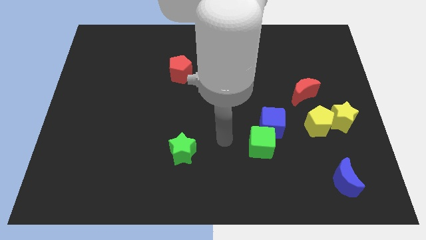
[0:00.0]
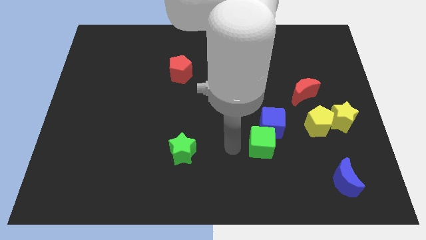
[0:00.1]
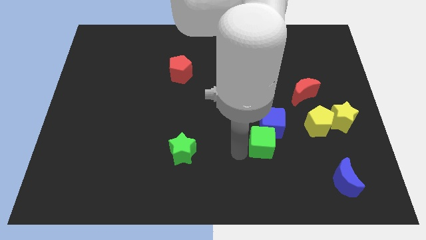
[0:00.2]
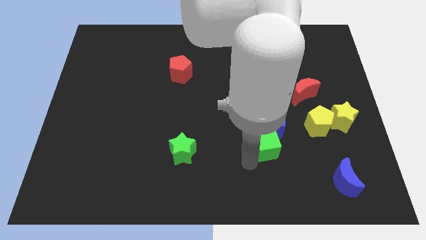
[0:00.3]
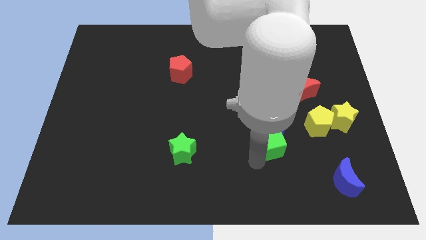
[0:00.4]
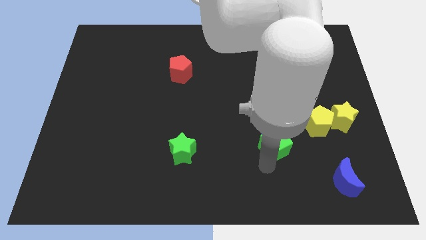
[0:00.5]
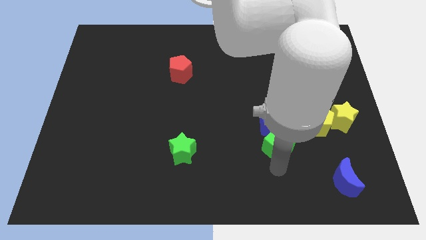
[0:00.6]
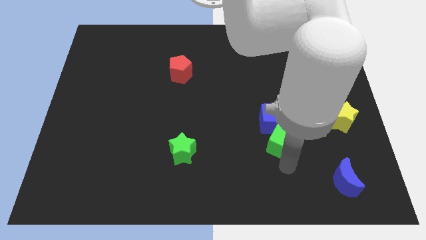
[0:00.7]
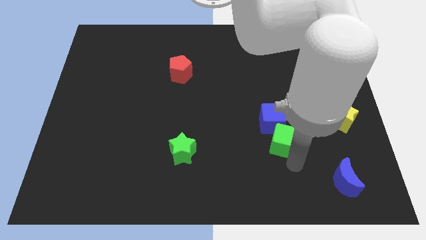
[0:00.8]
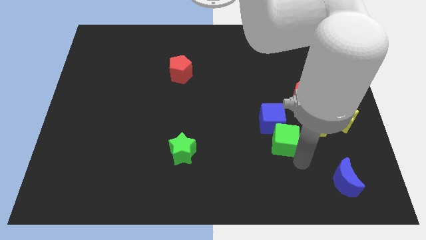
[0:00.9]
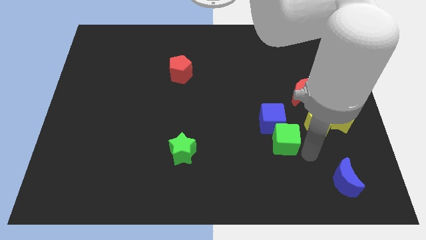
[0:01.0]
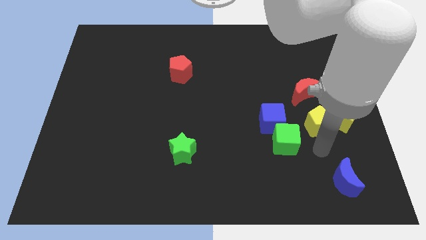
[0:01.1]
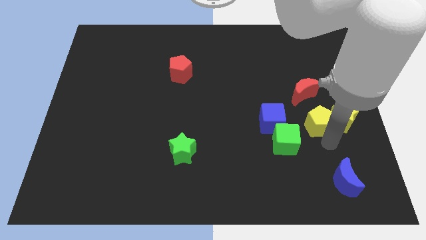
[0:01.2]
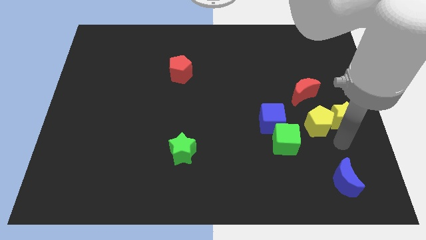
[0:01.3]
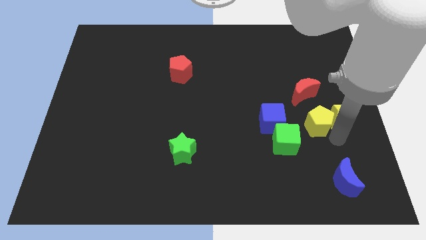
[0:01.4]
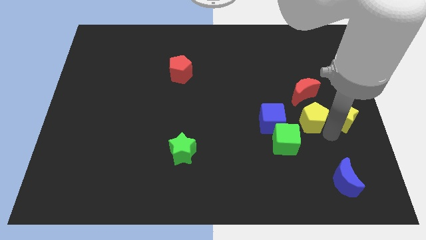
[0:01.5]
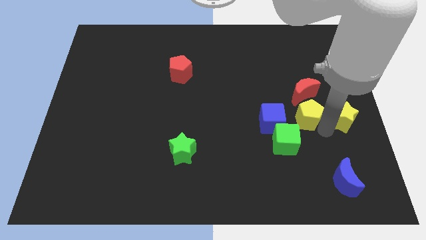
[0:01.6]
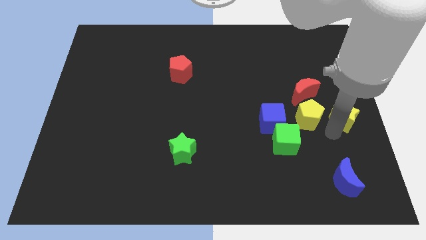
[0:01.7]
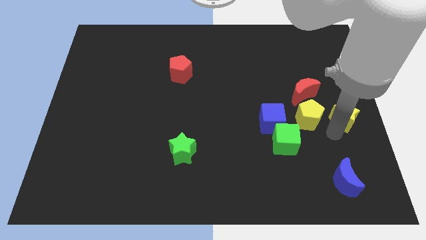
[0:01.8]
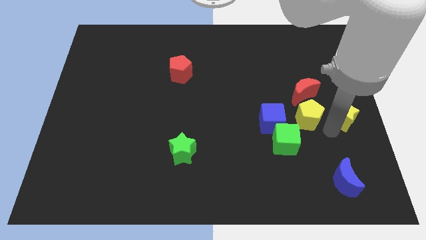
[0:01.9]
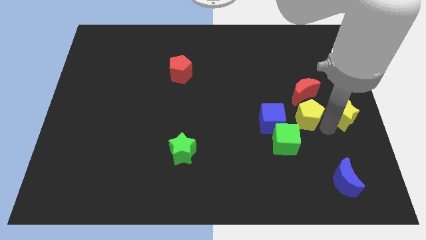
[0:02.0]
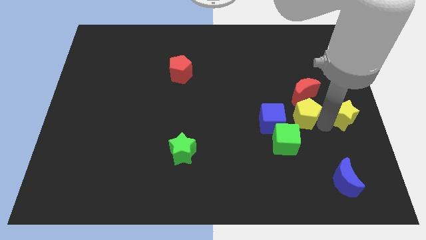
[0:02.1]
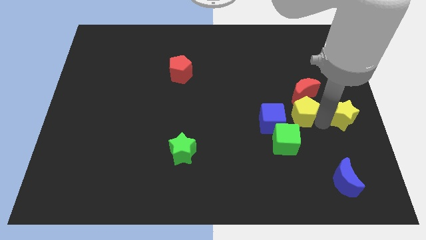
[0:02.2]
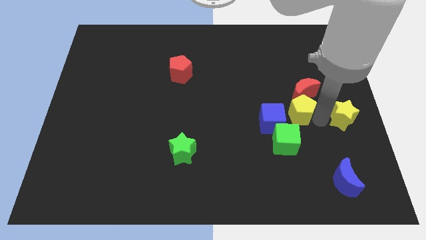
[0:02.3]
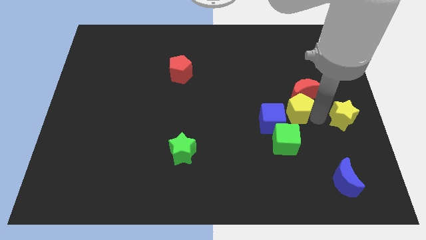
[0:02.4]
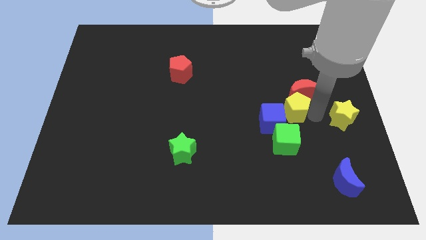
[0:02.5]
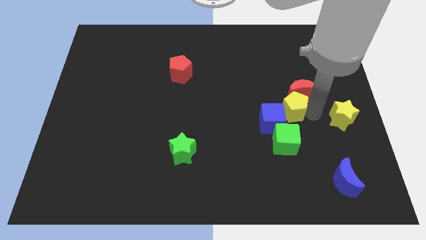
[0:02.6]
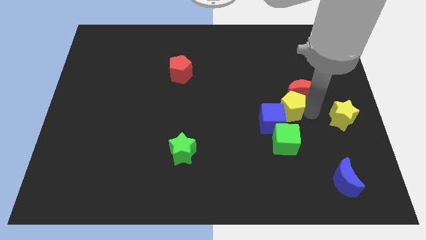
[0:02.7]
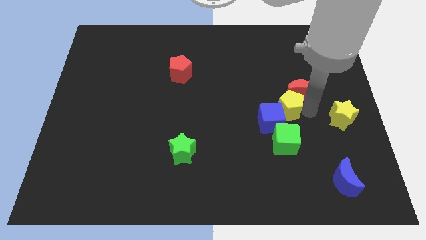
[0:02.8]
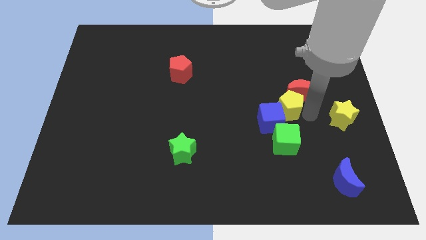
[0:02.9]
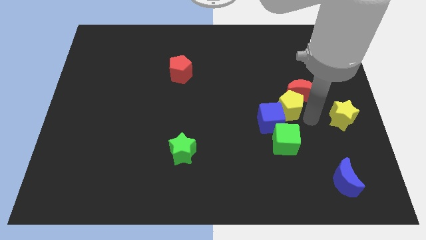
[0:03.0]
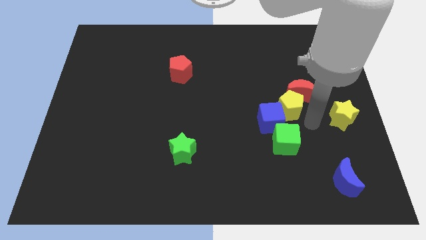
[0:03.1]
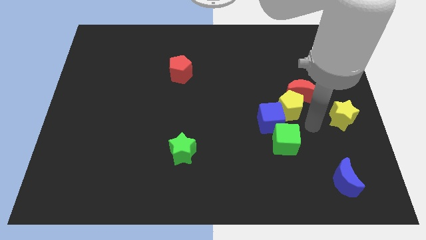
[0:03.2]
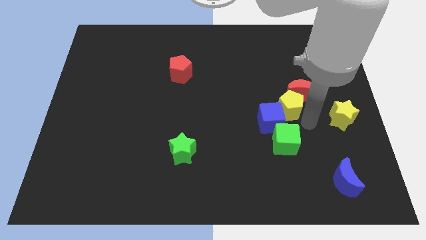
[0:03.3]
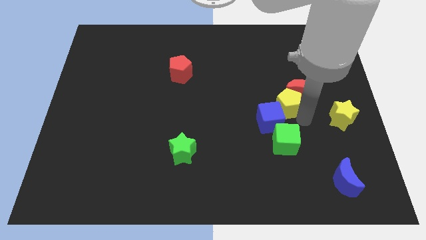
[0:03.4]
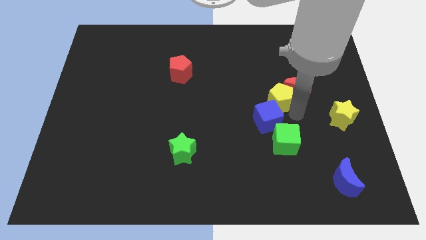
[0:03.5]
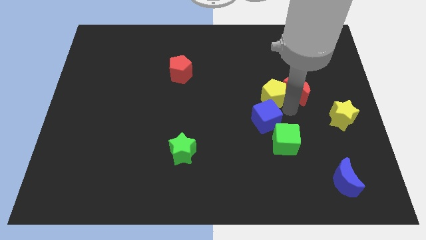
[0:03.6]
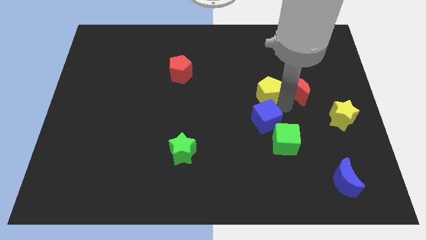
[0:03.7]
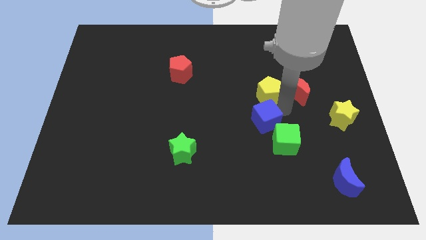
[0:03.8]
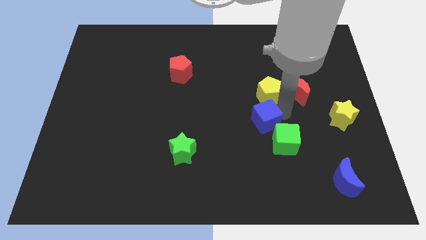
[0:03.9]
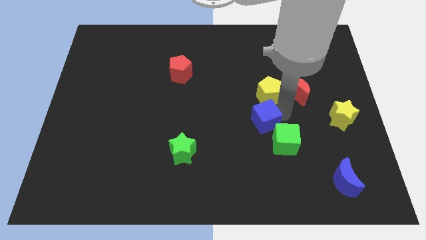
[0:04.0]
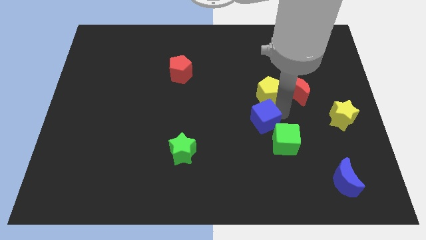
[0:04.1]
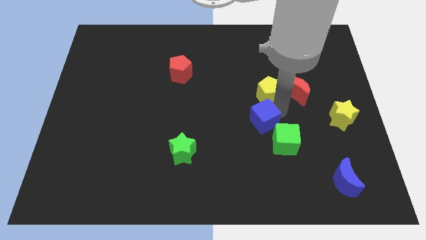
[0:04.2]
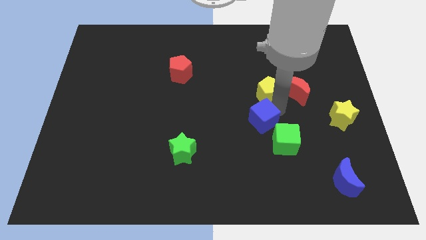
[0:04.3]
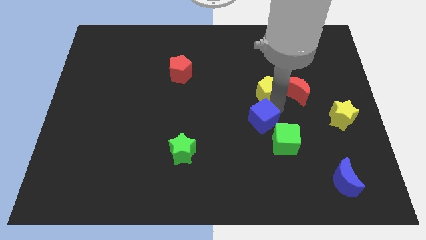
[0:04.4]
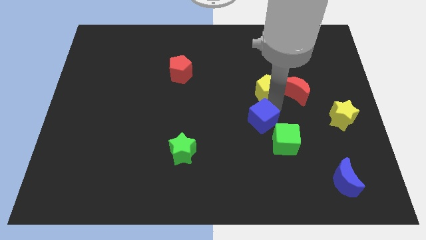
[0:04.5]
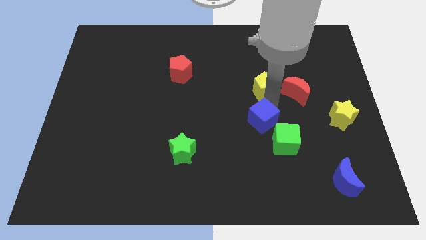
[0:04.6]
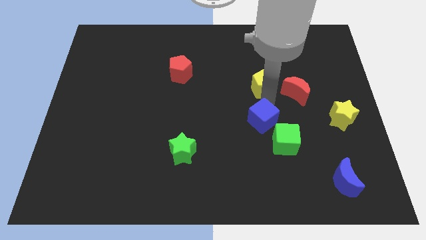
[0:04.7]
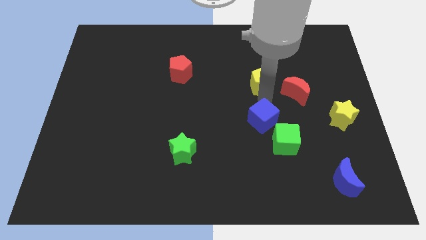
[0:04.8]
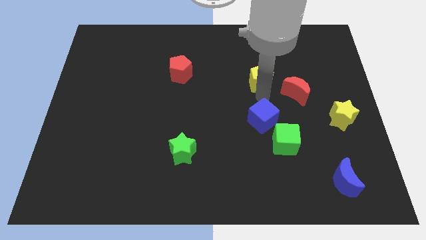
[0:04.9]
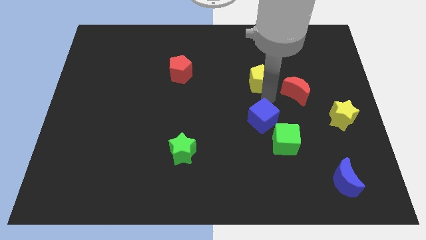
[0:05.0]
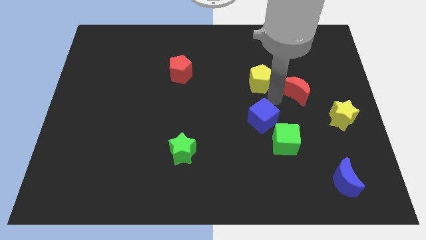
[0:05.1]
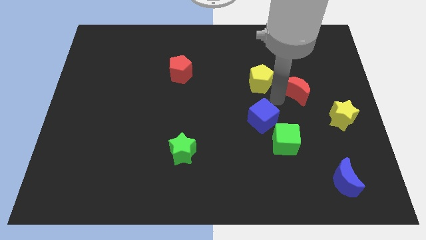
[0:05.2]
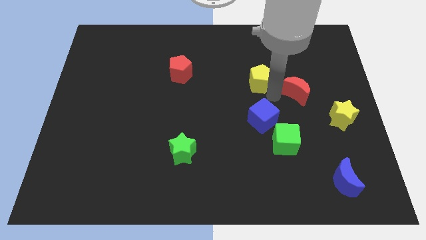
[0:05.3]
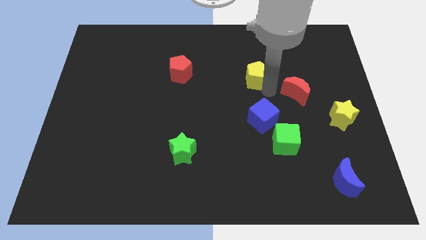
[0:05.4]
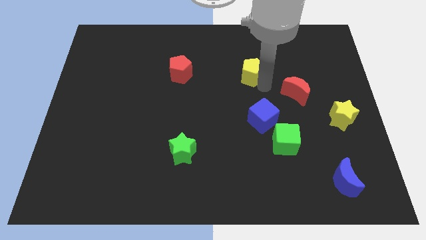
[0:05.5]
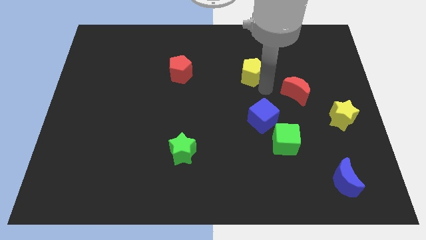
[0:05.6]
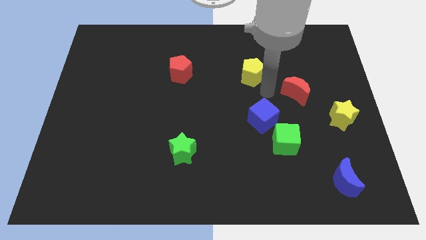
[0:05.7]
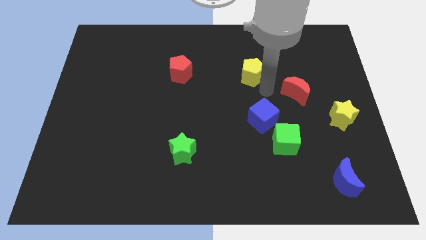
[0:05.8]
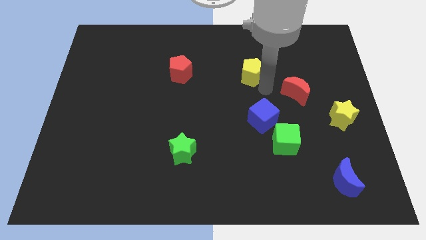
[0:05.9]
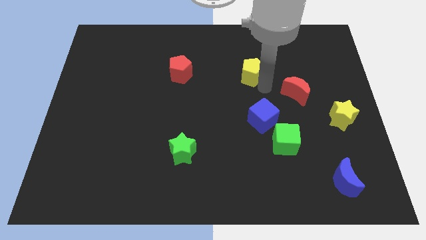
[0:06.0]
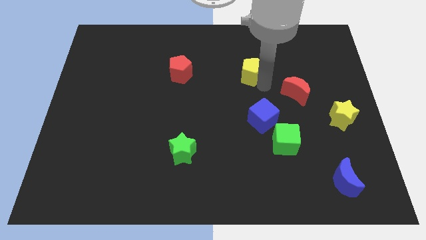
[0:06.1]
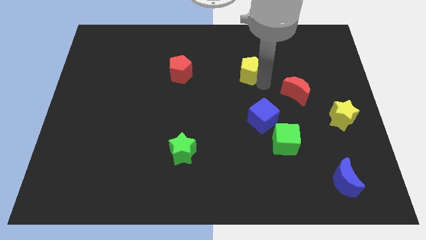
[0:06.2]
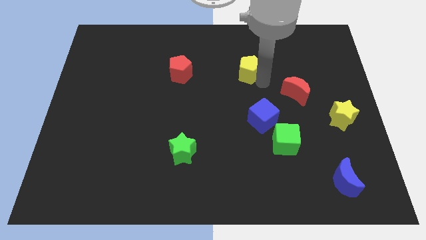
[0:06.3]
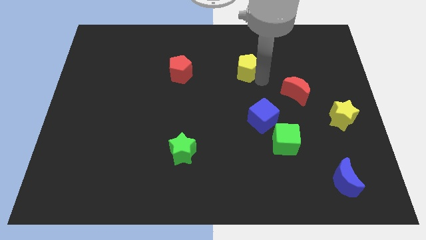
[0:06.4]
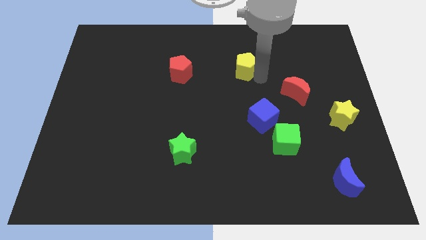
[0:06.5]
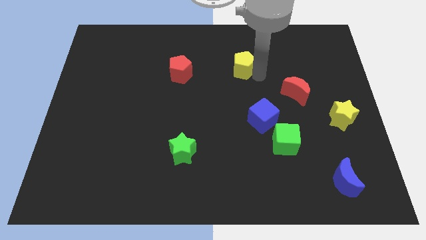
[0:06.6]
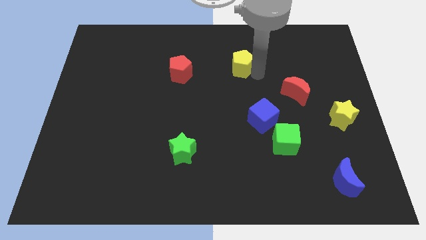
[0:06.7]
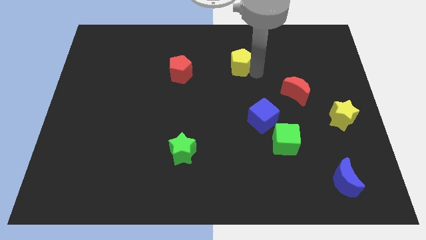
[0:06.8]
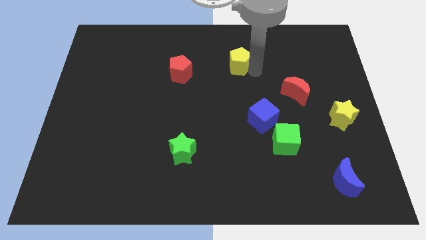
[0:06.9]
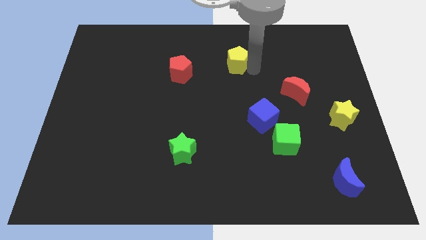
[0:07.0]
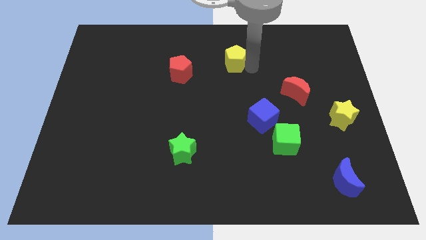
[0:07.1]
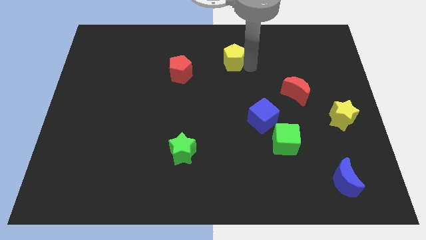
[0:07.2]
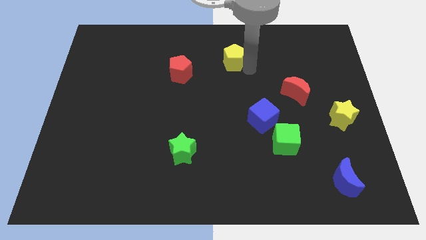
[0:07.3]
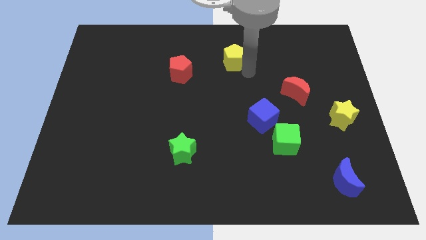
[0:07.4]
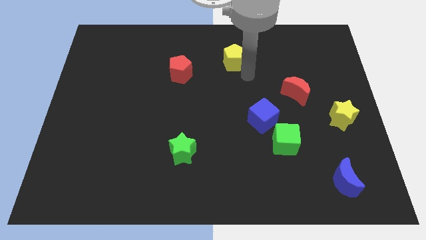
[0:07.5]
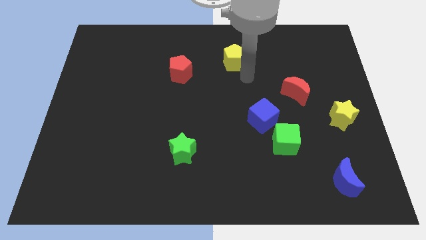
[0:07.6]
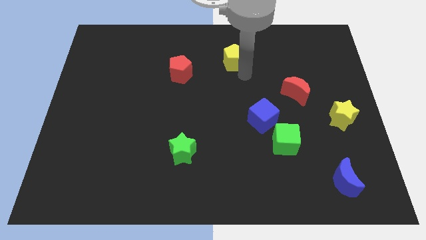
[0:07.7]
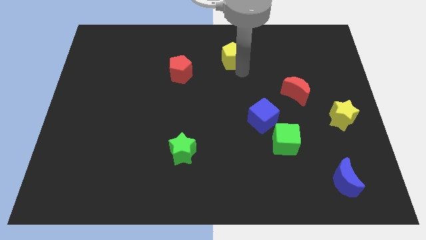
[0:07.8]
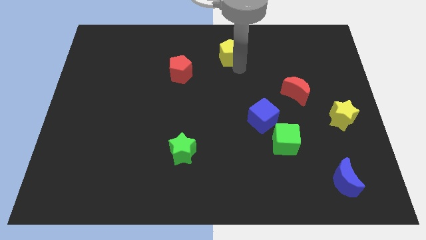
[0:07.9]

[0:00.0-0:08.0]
move the yellow pentagon to the top
